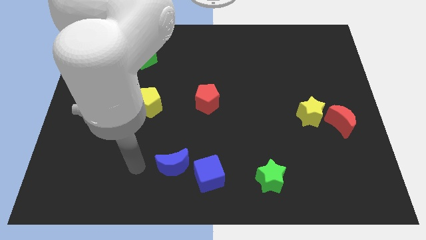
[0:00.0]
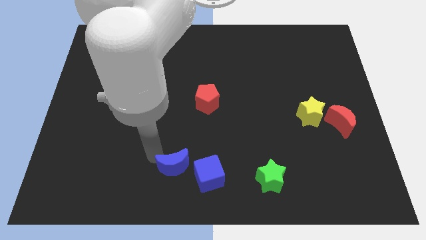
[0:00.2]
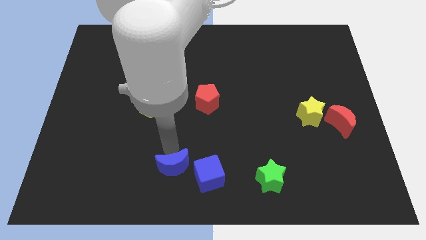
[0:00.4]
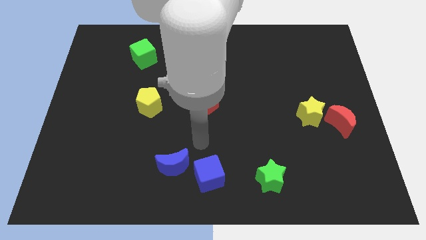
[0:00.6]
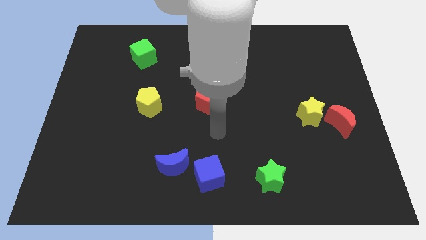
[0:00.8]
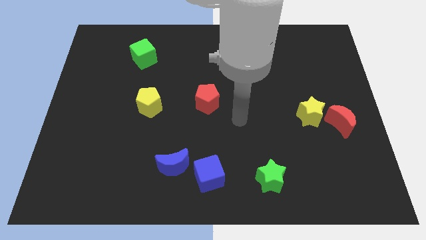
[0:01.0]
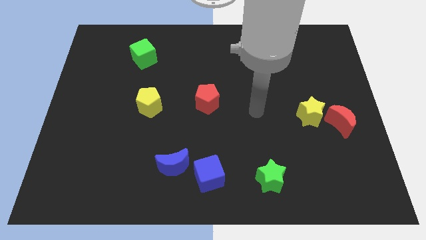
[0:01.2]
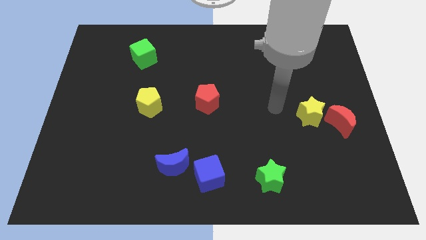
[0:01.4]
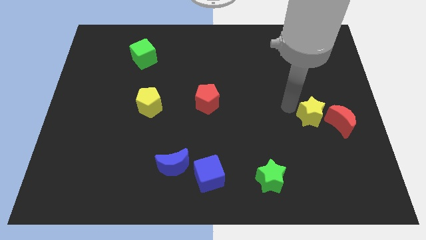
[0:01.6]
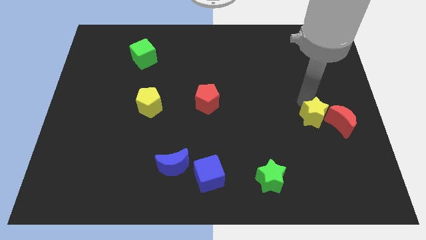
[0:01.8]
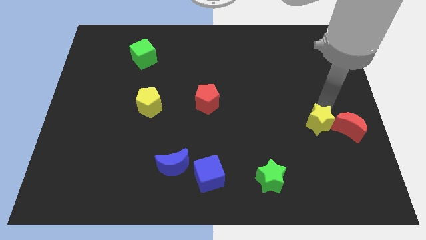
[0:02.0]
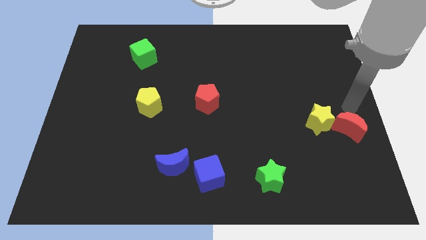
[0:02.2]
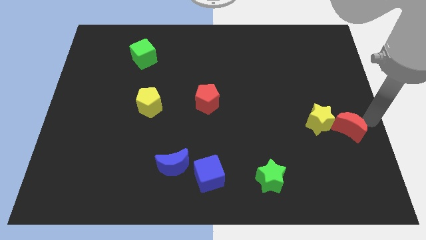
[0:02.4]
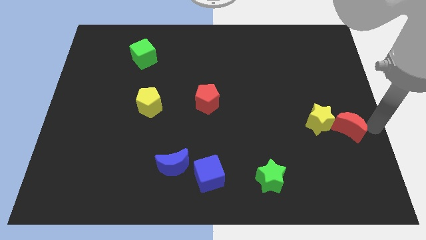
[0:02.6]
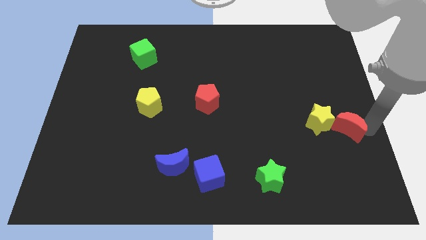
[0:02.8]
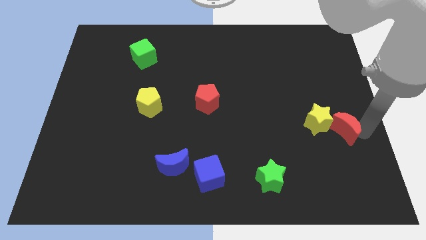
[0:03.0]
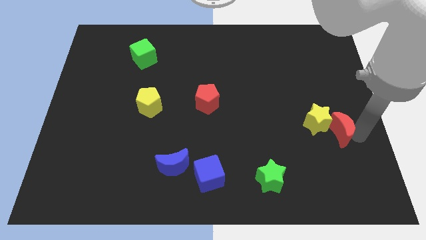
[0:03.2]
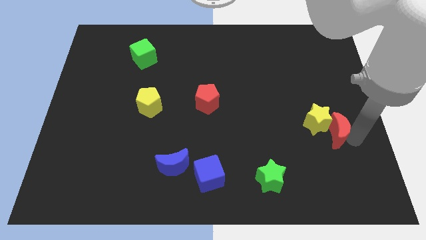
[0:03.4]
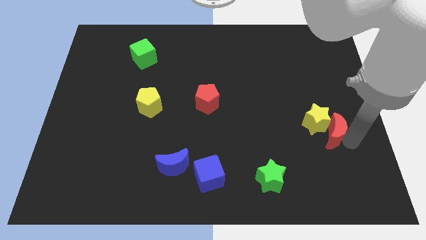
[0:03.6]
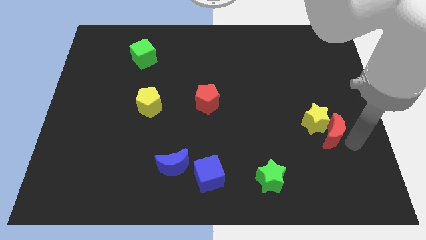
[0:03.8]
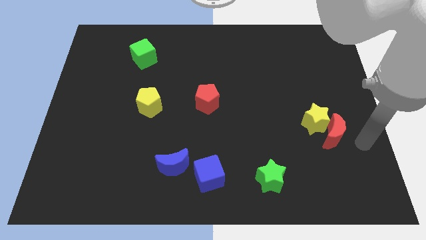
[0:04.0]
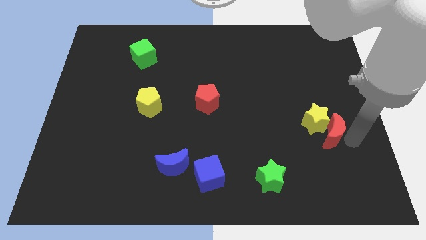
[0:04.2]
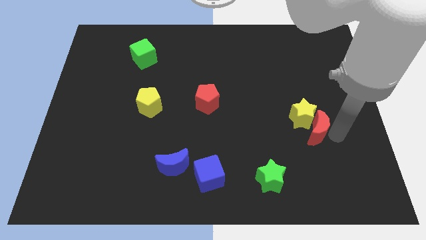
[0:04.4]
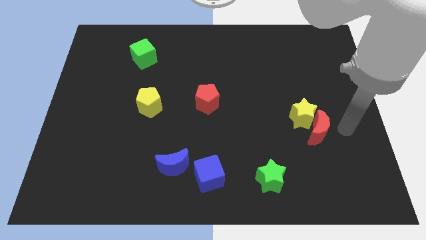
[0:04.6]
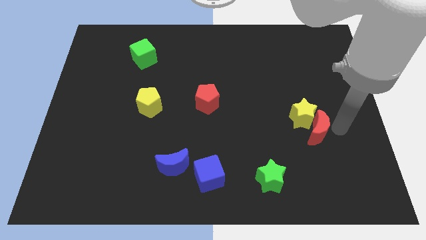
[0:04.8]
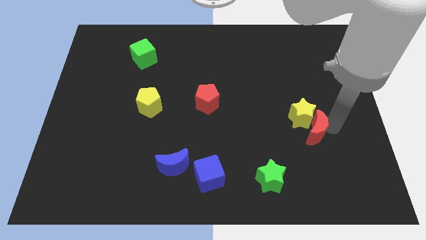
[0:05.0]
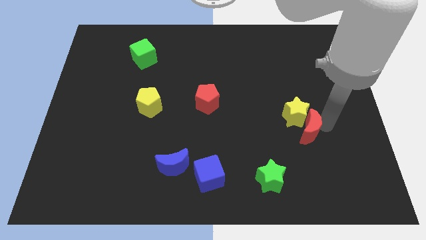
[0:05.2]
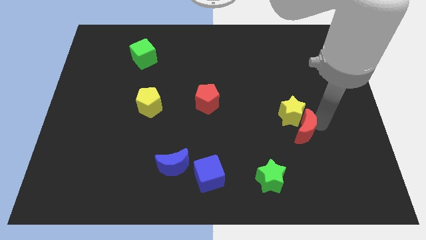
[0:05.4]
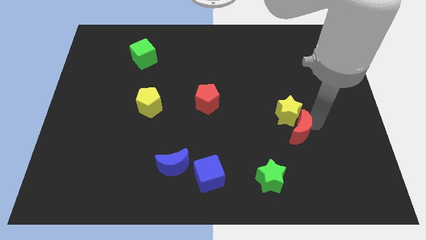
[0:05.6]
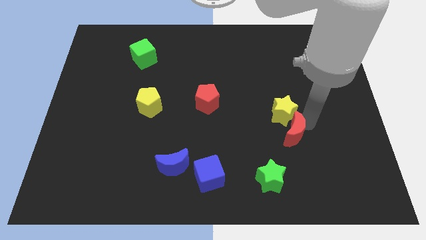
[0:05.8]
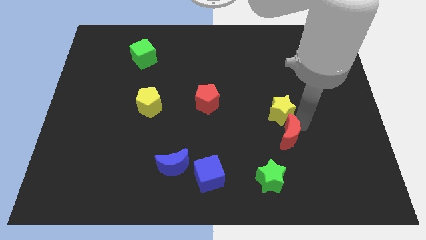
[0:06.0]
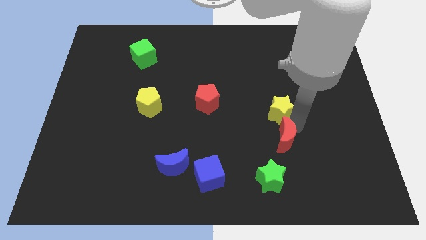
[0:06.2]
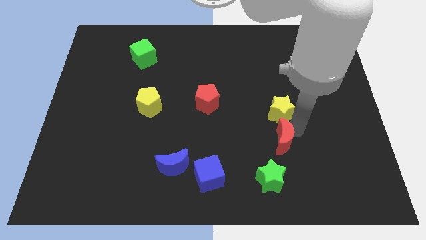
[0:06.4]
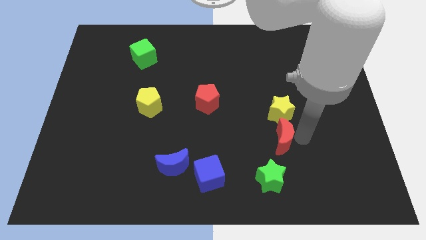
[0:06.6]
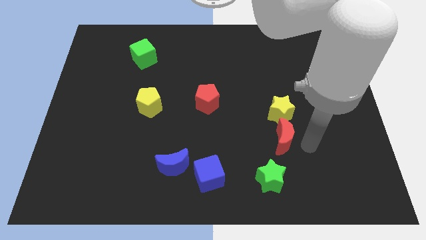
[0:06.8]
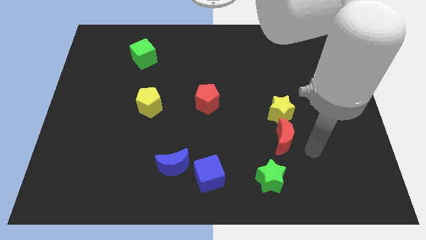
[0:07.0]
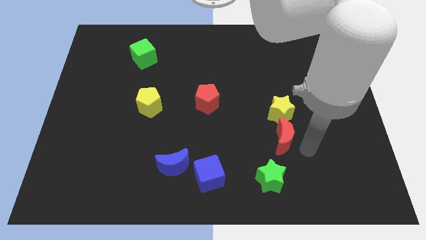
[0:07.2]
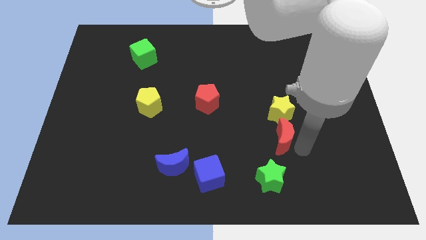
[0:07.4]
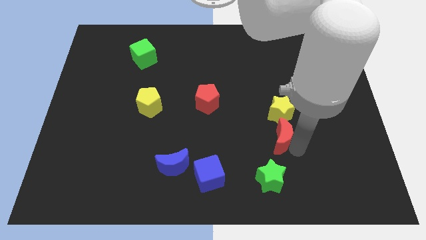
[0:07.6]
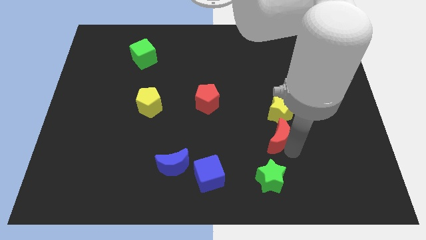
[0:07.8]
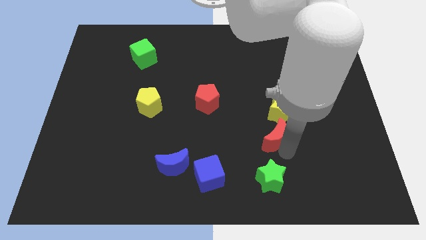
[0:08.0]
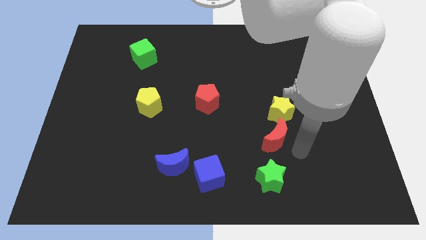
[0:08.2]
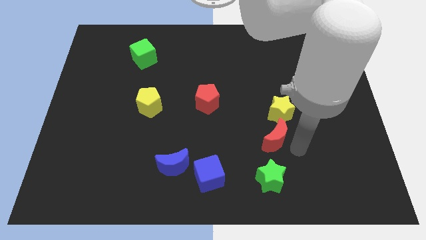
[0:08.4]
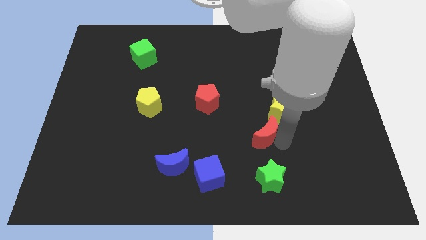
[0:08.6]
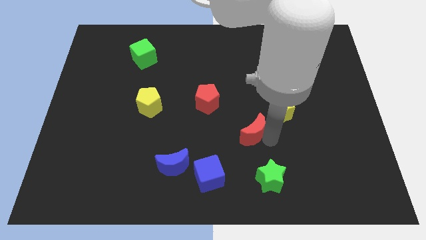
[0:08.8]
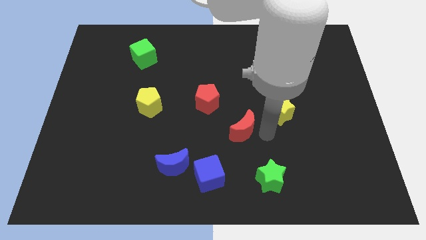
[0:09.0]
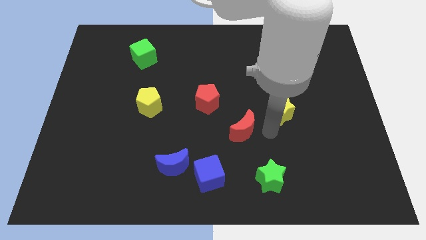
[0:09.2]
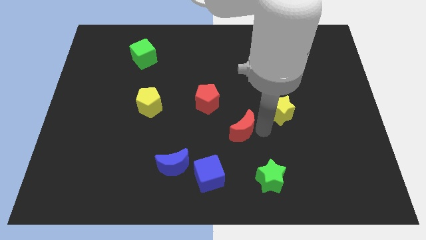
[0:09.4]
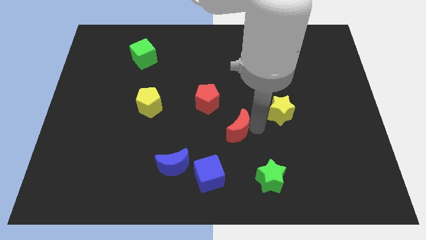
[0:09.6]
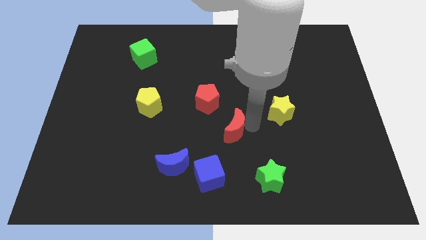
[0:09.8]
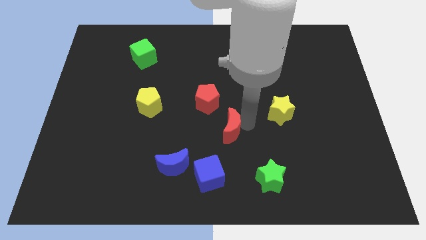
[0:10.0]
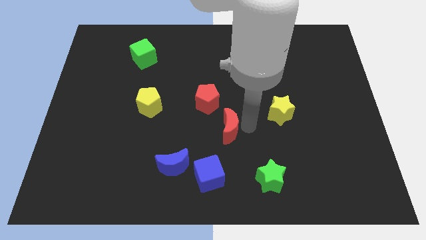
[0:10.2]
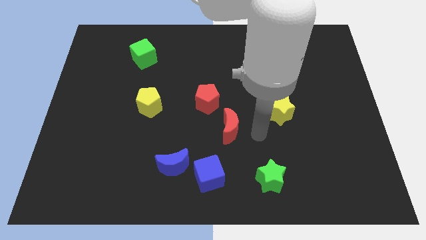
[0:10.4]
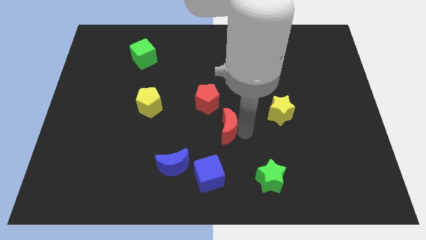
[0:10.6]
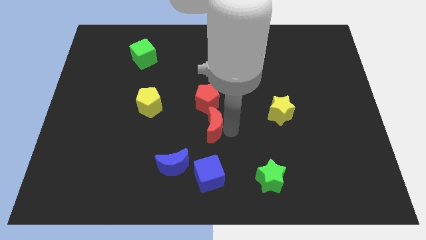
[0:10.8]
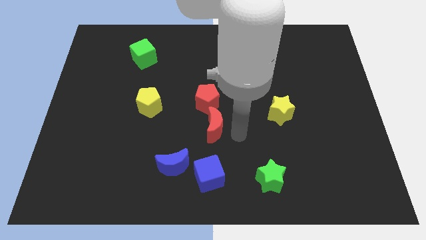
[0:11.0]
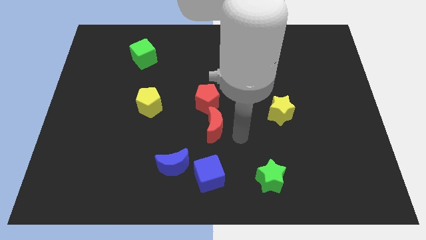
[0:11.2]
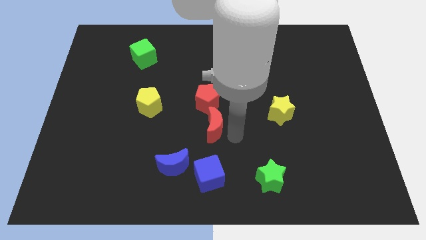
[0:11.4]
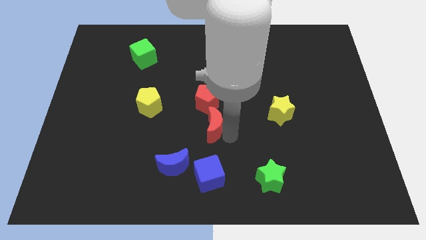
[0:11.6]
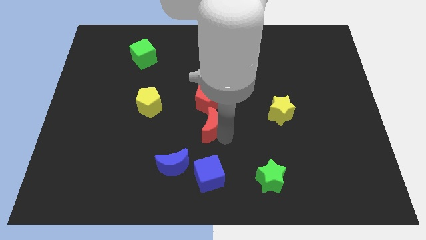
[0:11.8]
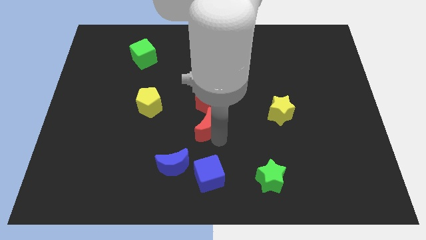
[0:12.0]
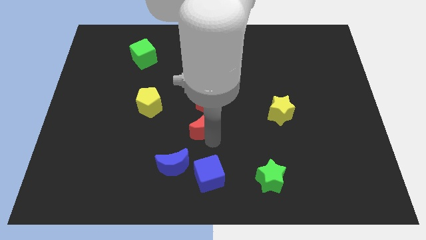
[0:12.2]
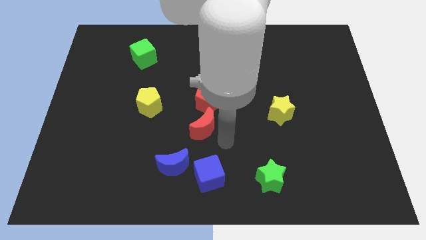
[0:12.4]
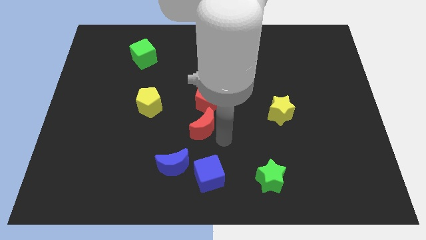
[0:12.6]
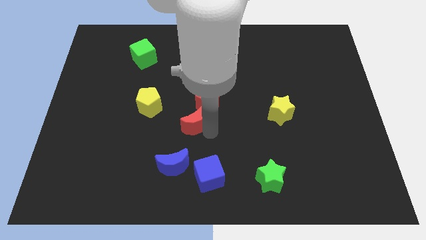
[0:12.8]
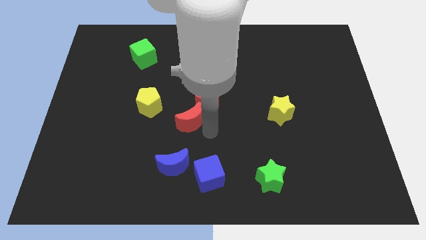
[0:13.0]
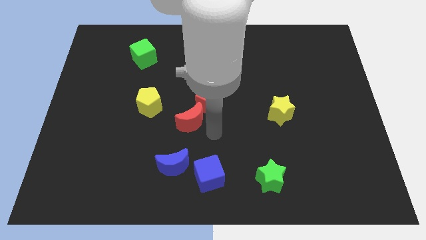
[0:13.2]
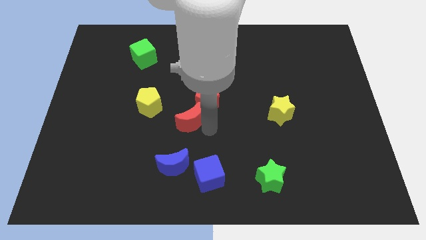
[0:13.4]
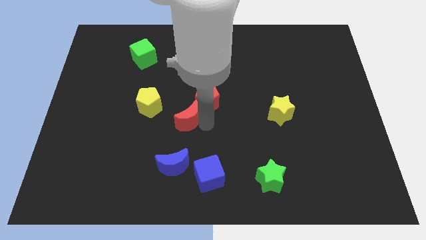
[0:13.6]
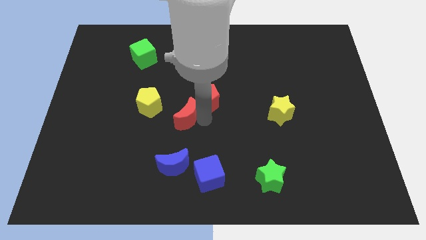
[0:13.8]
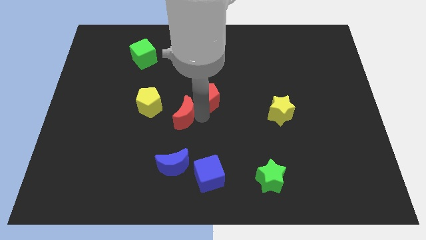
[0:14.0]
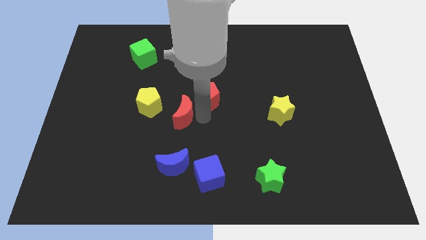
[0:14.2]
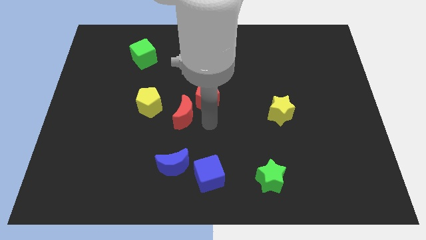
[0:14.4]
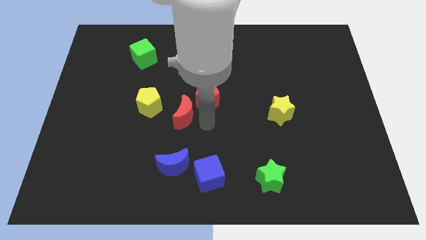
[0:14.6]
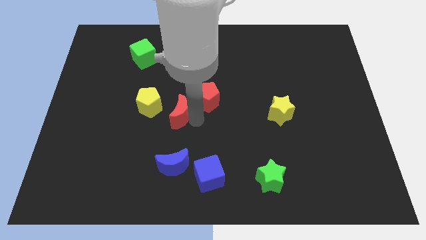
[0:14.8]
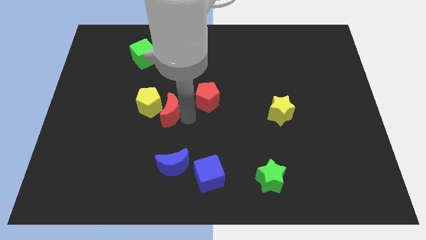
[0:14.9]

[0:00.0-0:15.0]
move the red moon towards the yellow pentagon
